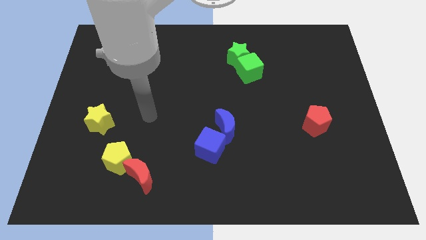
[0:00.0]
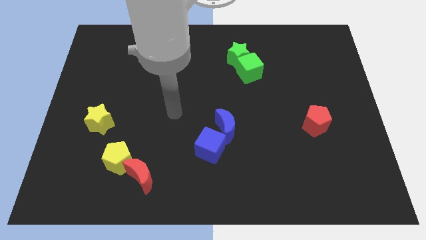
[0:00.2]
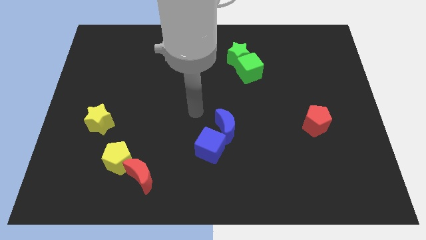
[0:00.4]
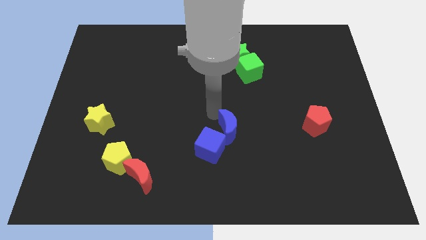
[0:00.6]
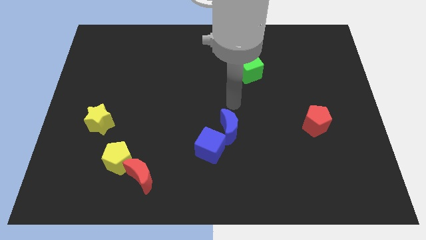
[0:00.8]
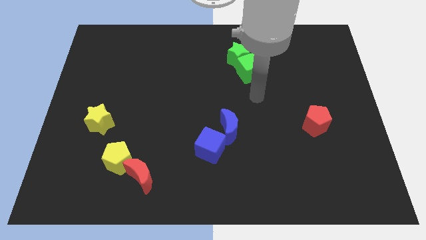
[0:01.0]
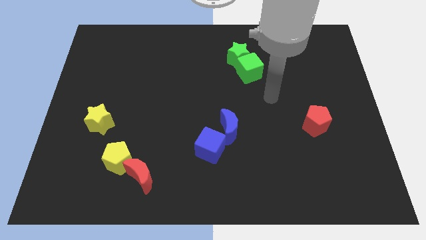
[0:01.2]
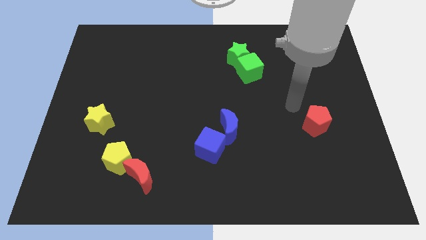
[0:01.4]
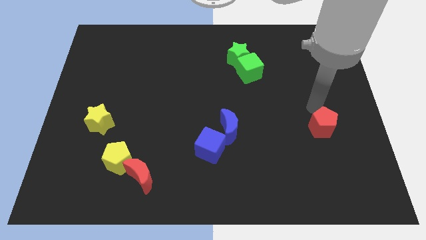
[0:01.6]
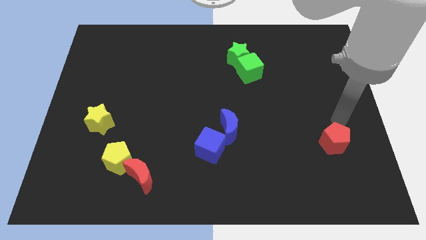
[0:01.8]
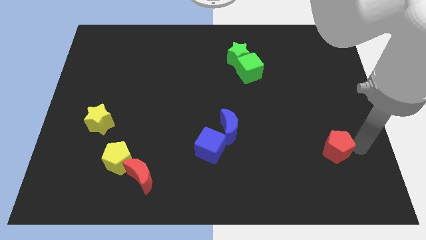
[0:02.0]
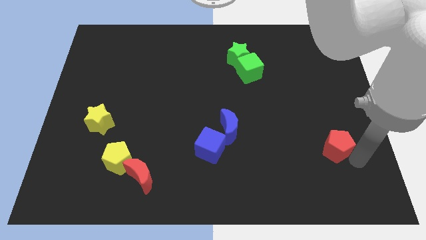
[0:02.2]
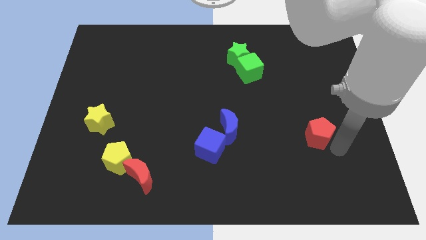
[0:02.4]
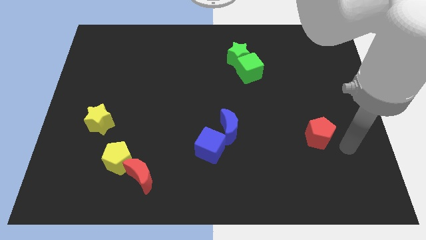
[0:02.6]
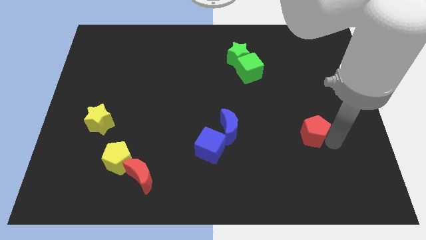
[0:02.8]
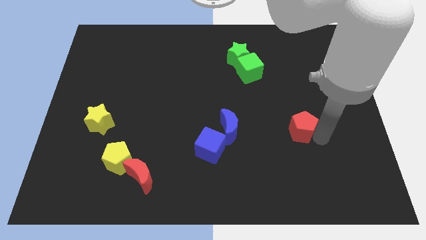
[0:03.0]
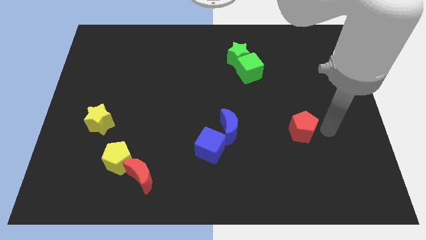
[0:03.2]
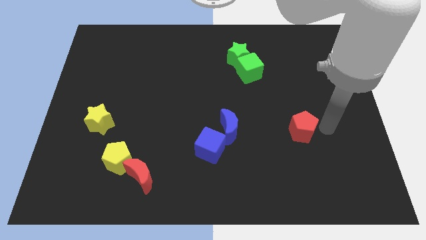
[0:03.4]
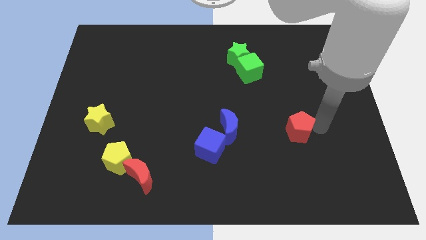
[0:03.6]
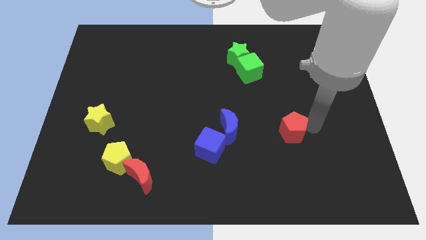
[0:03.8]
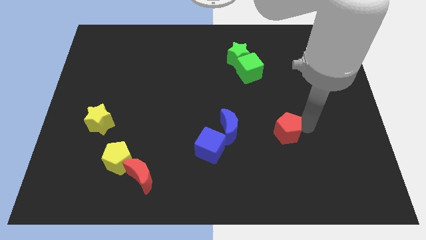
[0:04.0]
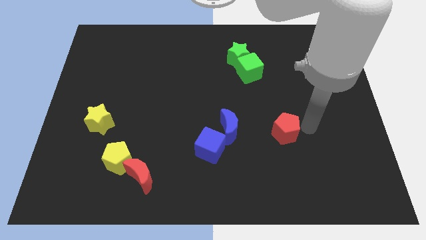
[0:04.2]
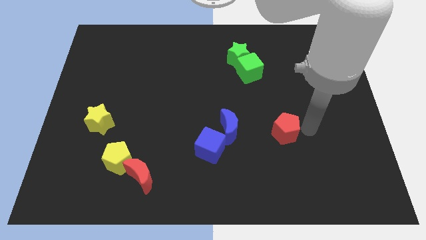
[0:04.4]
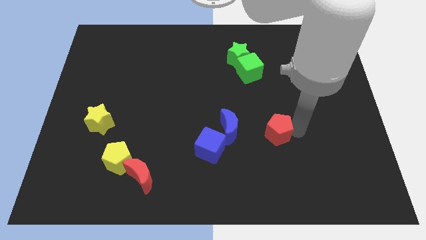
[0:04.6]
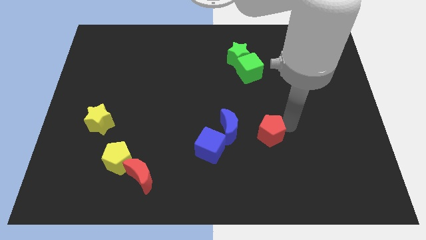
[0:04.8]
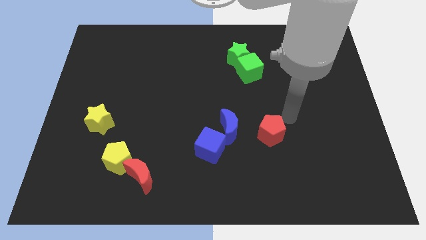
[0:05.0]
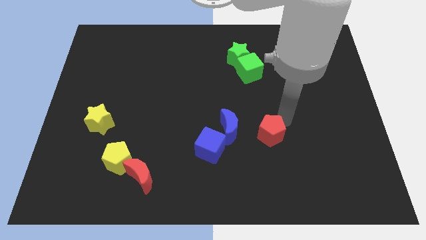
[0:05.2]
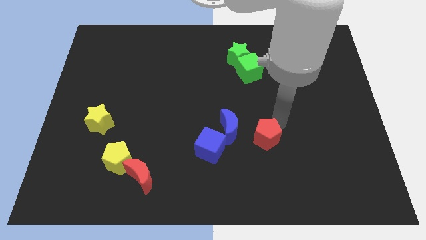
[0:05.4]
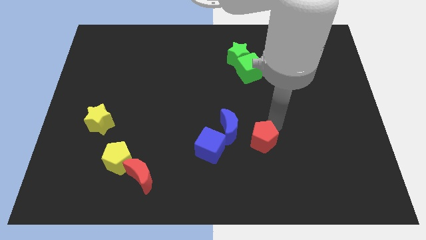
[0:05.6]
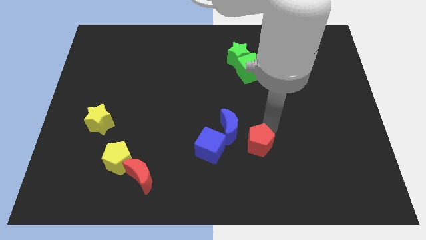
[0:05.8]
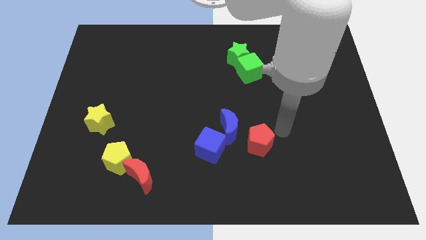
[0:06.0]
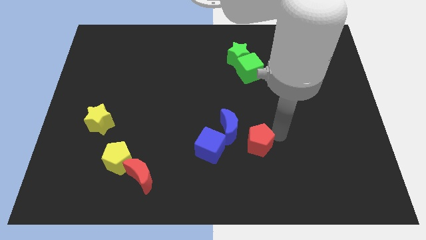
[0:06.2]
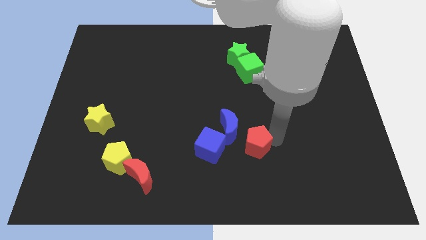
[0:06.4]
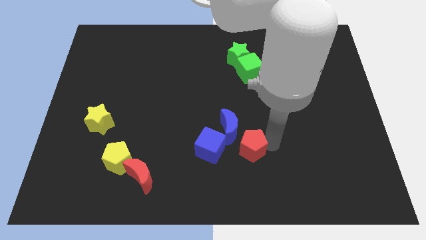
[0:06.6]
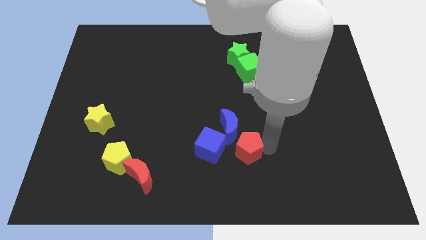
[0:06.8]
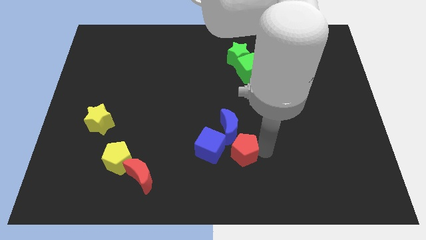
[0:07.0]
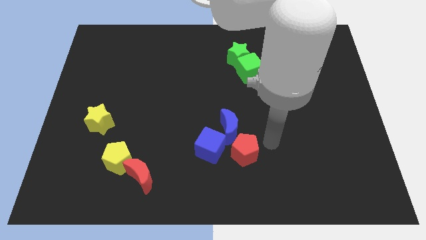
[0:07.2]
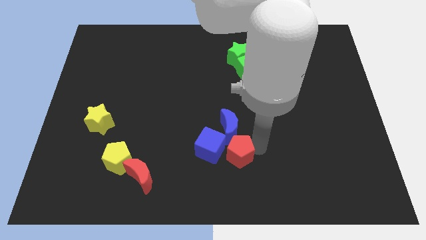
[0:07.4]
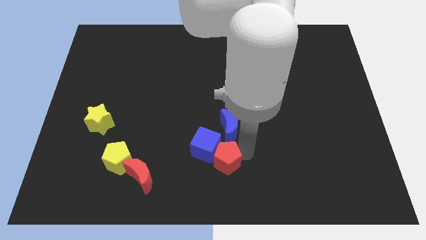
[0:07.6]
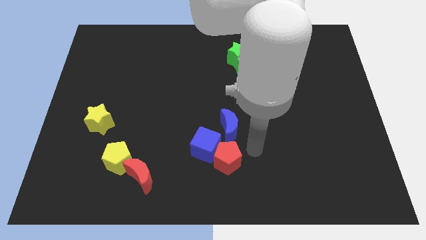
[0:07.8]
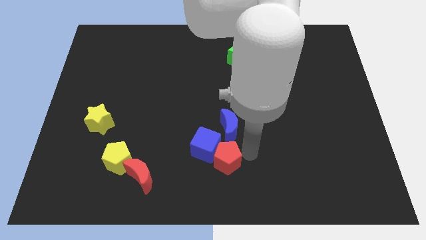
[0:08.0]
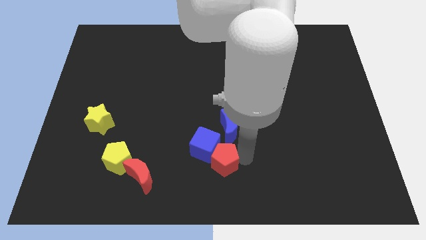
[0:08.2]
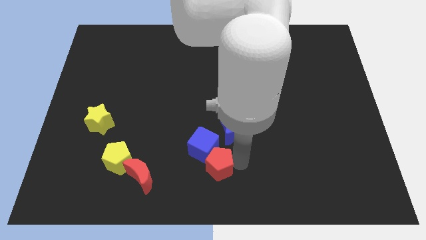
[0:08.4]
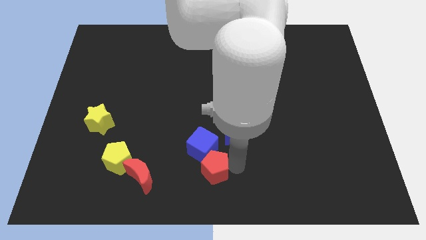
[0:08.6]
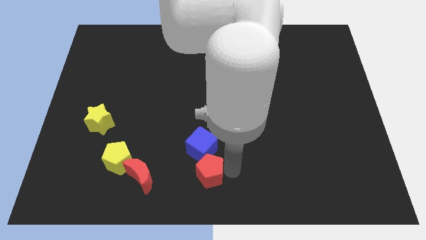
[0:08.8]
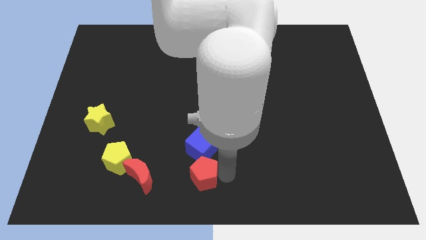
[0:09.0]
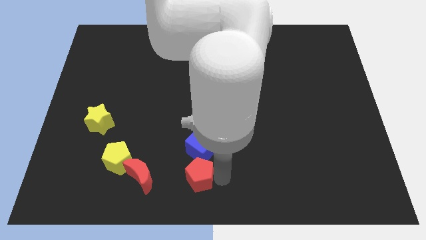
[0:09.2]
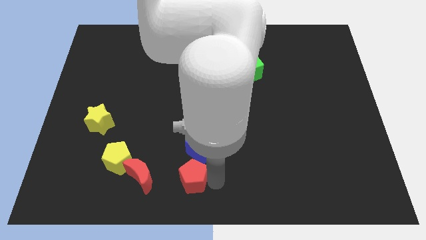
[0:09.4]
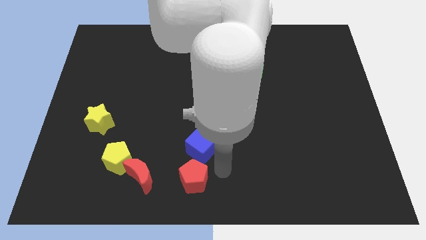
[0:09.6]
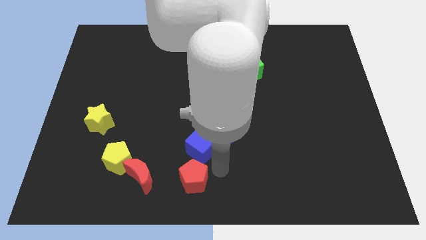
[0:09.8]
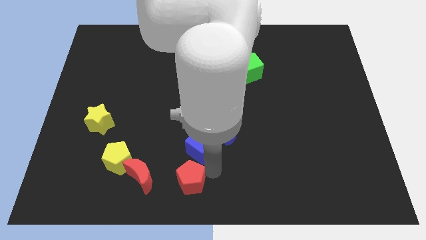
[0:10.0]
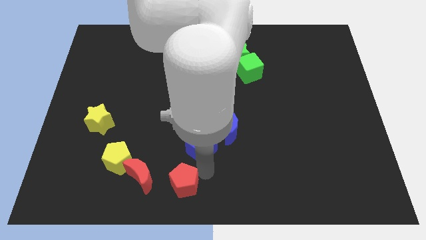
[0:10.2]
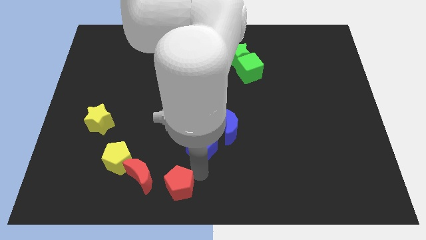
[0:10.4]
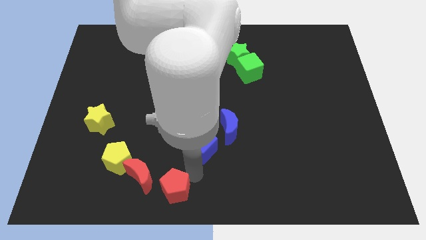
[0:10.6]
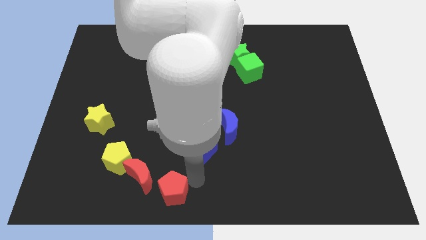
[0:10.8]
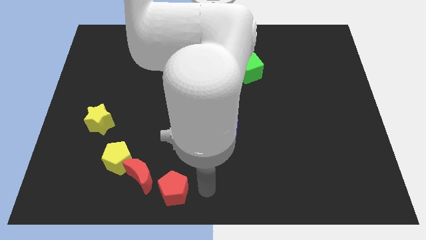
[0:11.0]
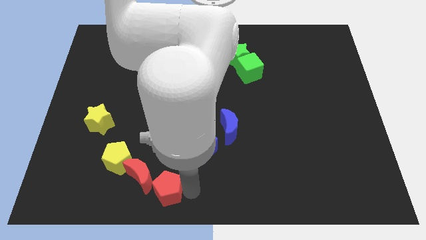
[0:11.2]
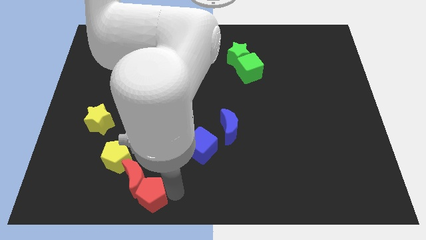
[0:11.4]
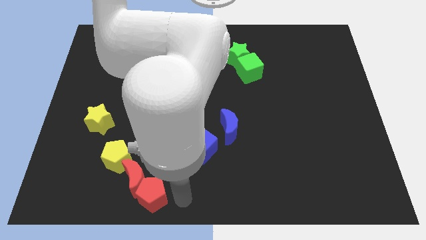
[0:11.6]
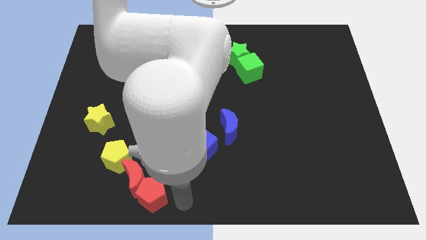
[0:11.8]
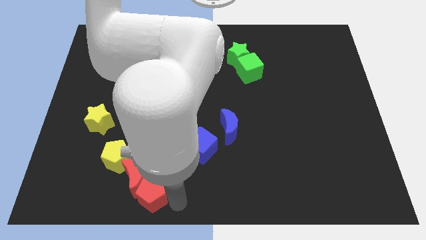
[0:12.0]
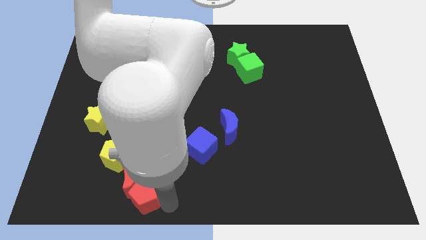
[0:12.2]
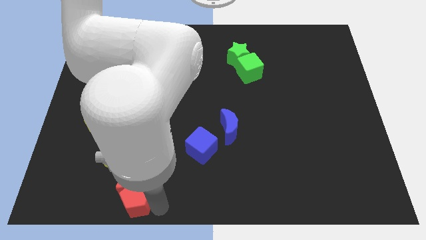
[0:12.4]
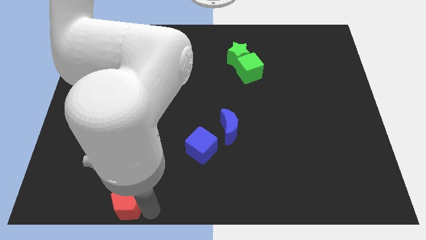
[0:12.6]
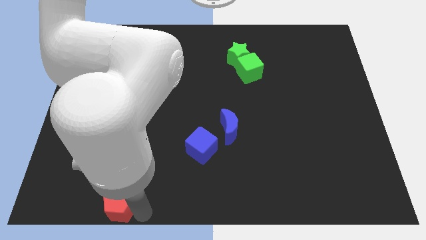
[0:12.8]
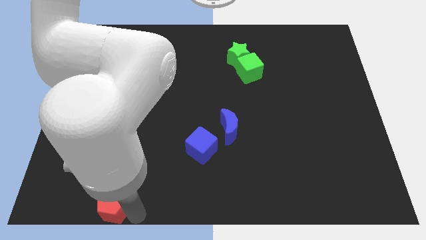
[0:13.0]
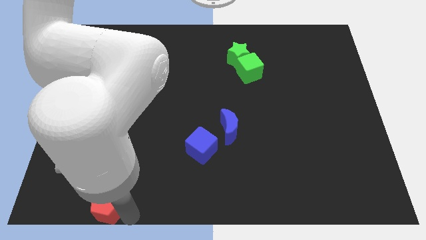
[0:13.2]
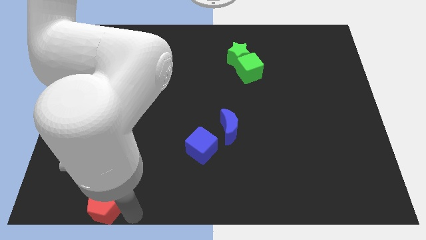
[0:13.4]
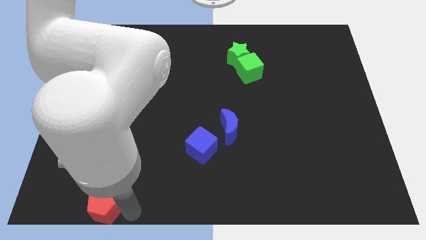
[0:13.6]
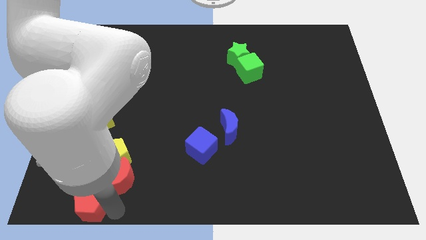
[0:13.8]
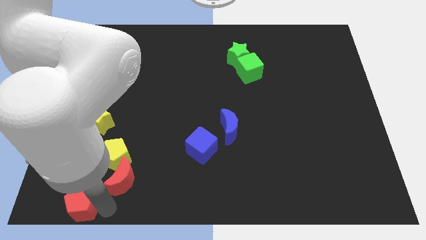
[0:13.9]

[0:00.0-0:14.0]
put the red pentagon to the lower left corner
